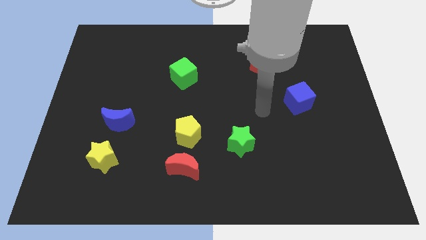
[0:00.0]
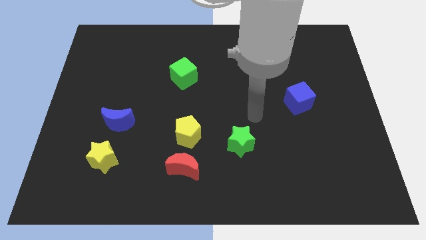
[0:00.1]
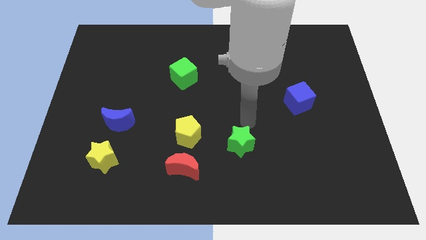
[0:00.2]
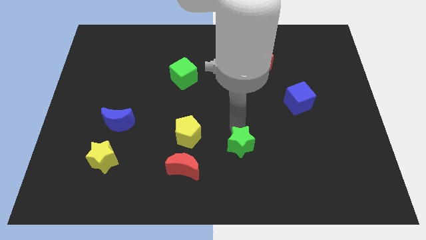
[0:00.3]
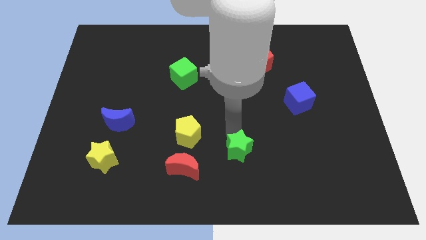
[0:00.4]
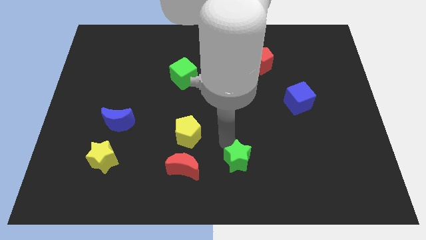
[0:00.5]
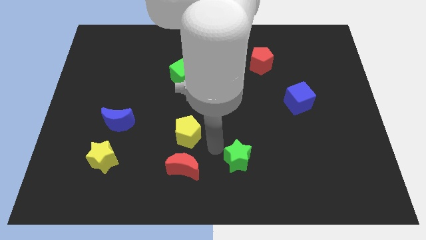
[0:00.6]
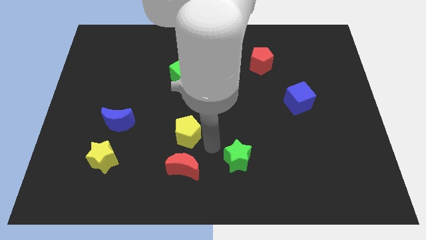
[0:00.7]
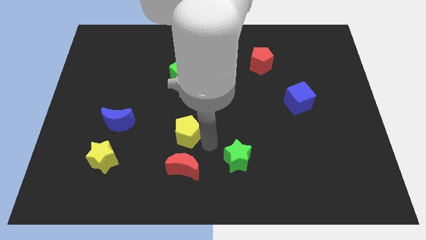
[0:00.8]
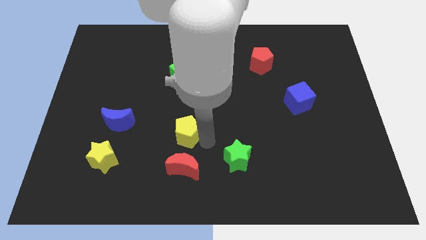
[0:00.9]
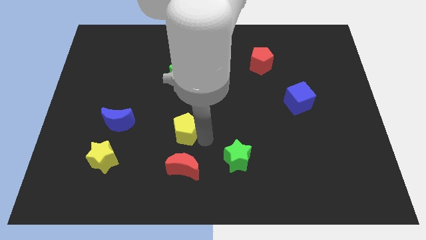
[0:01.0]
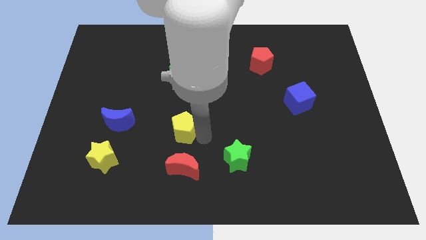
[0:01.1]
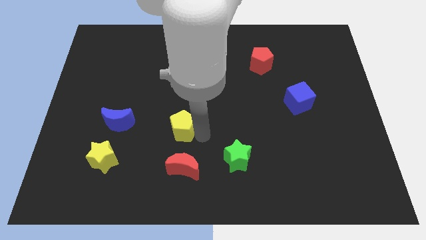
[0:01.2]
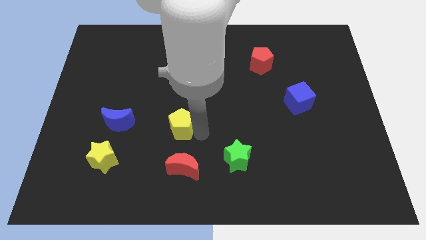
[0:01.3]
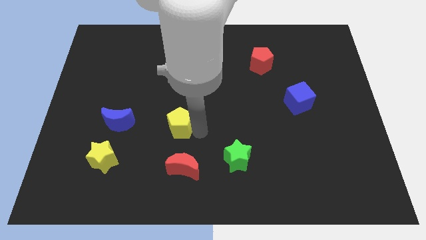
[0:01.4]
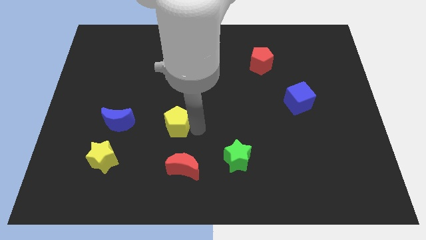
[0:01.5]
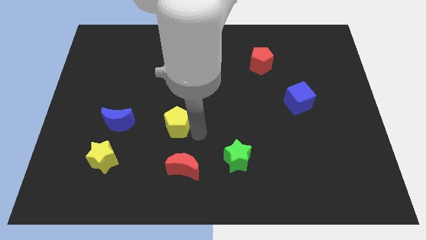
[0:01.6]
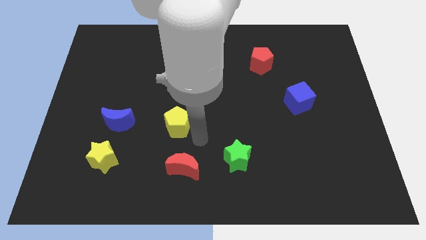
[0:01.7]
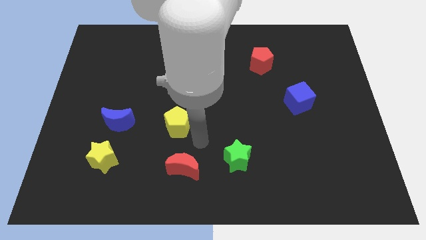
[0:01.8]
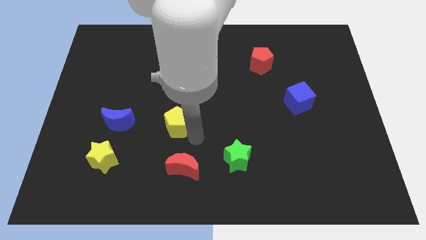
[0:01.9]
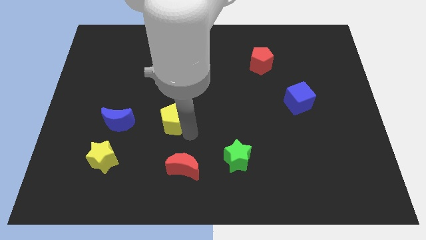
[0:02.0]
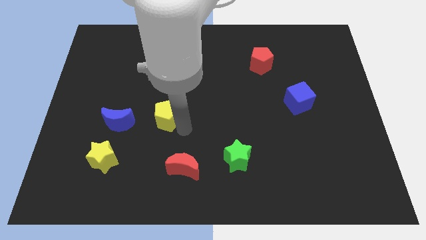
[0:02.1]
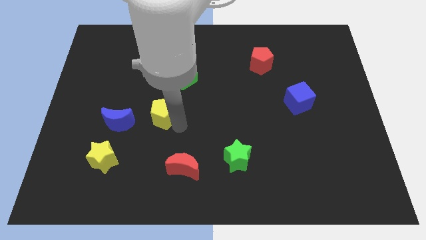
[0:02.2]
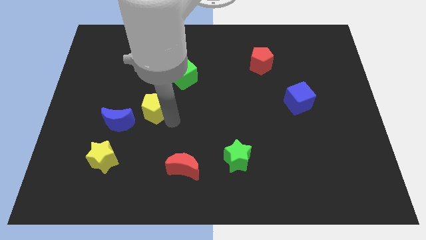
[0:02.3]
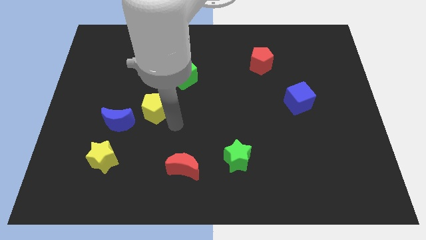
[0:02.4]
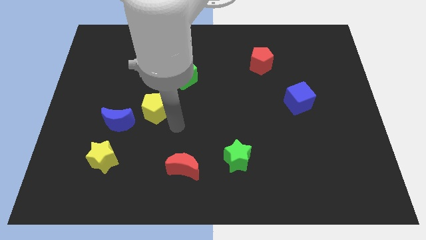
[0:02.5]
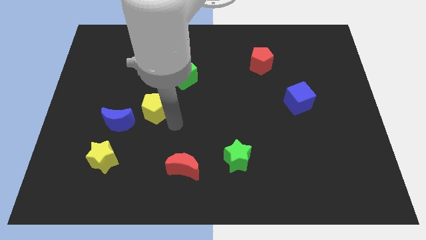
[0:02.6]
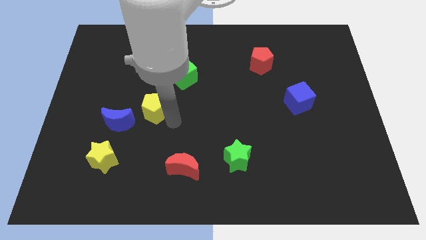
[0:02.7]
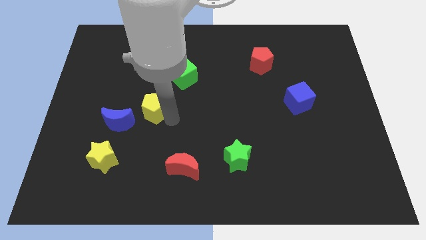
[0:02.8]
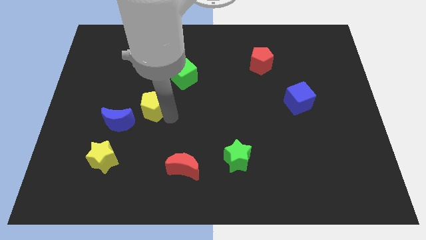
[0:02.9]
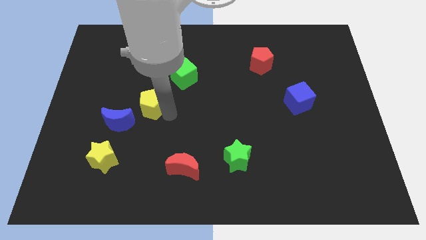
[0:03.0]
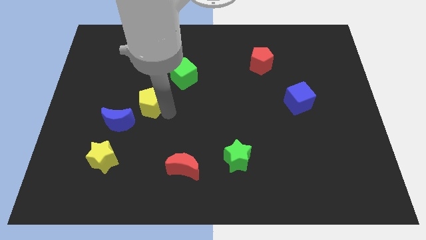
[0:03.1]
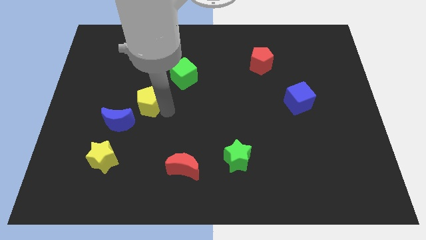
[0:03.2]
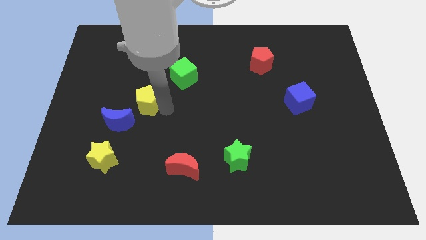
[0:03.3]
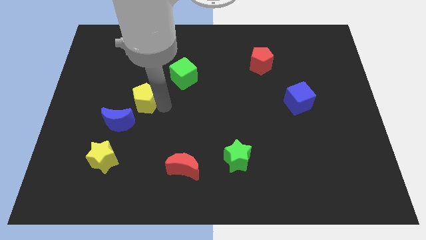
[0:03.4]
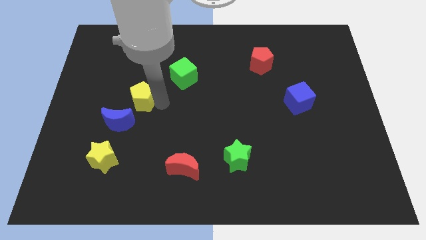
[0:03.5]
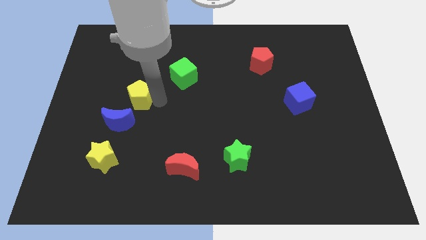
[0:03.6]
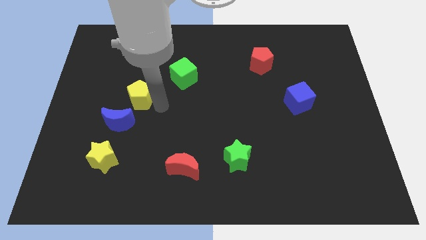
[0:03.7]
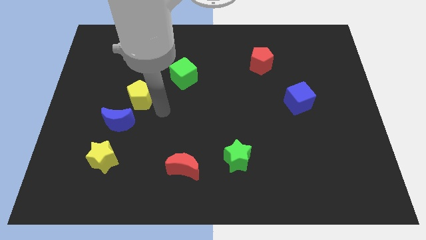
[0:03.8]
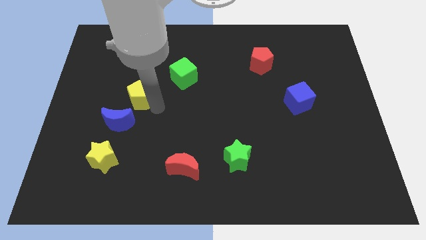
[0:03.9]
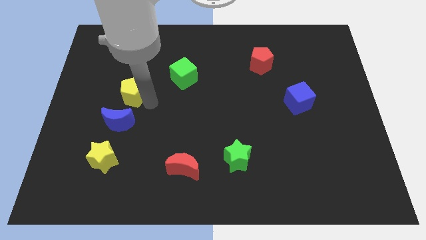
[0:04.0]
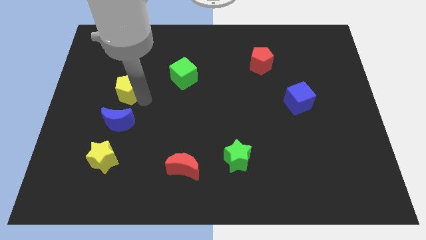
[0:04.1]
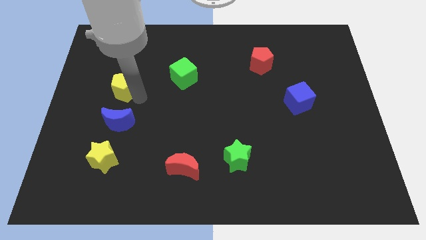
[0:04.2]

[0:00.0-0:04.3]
push the yellow pentagon up and left

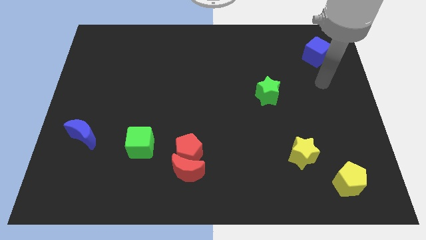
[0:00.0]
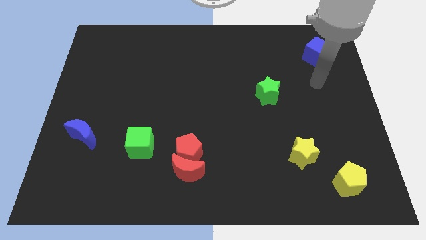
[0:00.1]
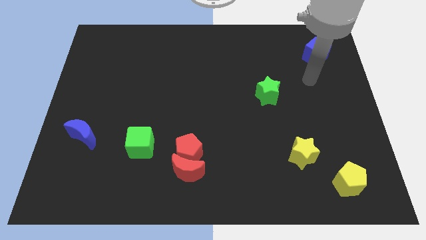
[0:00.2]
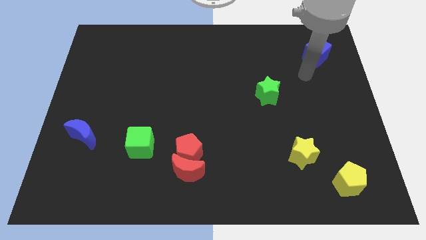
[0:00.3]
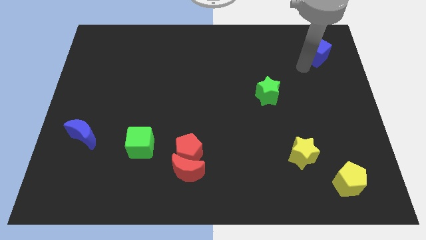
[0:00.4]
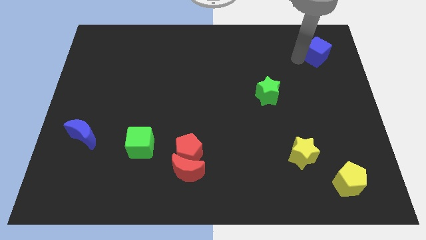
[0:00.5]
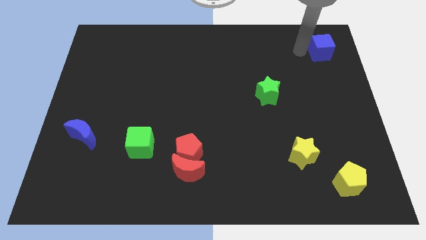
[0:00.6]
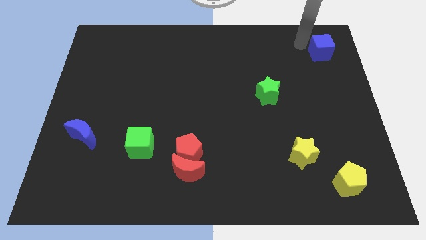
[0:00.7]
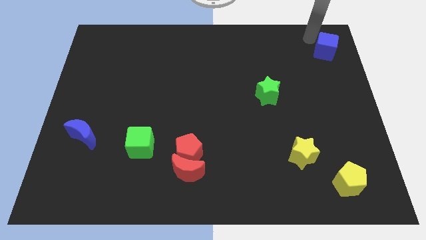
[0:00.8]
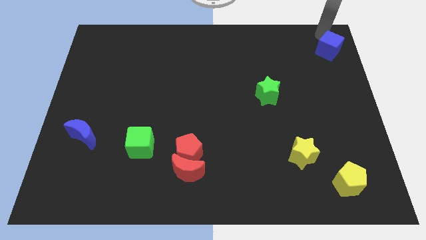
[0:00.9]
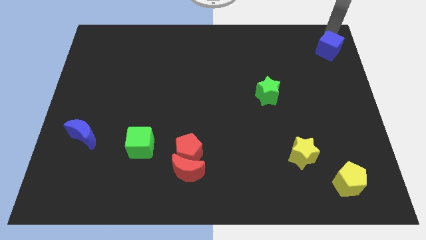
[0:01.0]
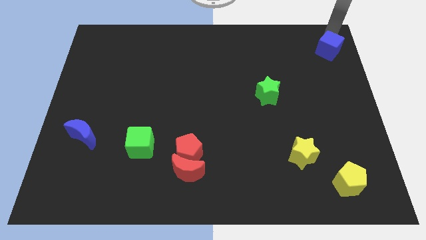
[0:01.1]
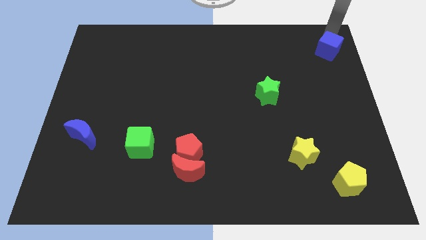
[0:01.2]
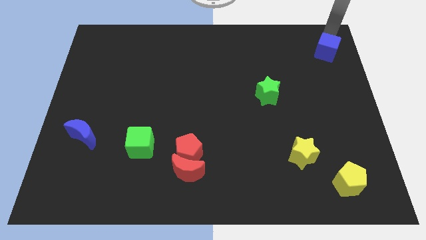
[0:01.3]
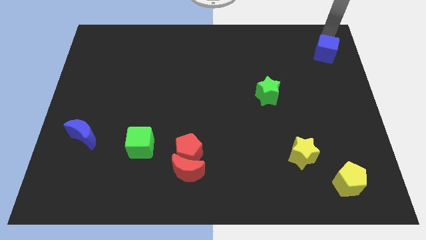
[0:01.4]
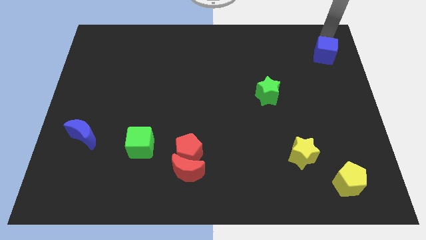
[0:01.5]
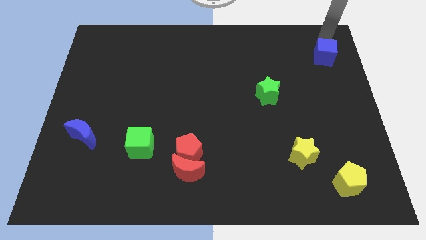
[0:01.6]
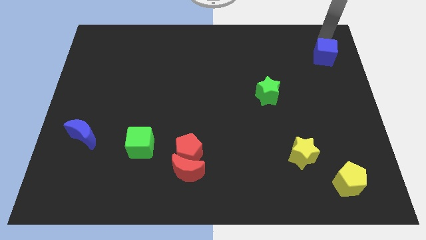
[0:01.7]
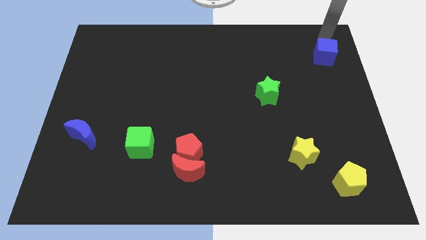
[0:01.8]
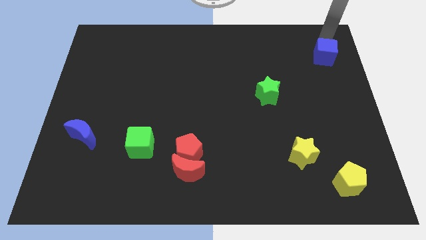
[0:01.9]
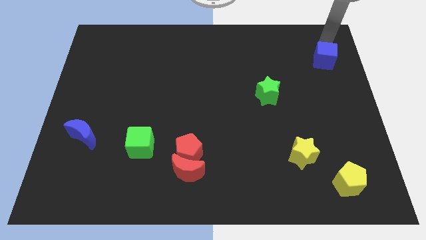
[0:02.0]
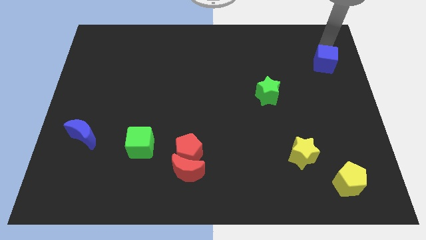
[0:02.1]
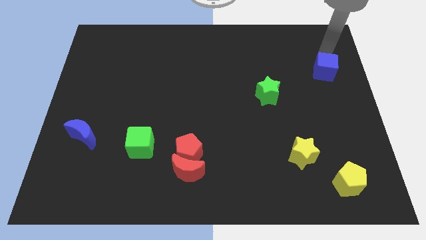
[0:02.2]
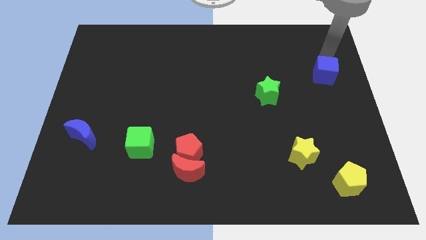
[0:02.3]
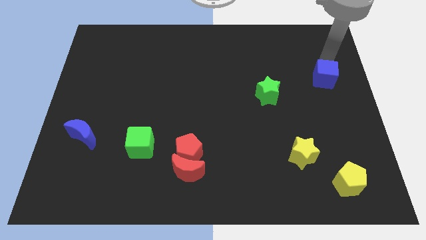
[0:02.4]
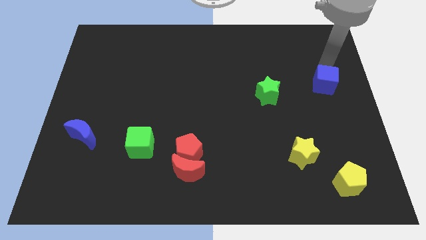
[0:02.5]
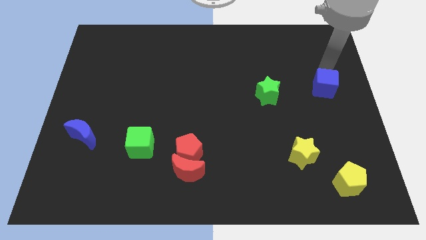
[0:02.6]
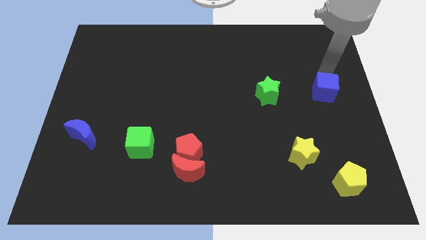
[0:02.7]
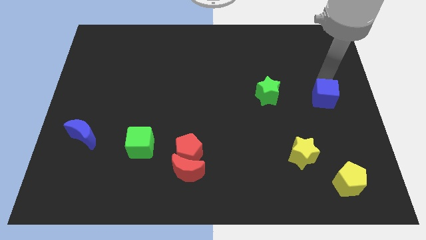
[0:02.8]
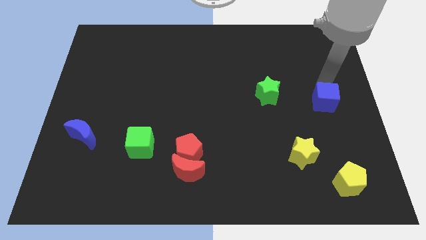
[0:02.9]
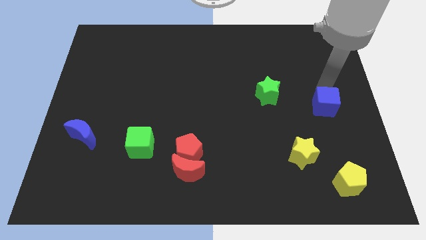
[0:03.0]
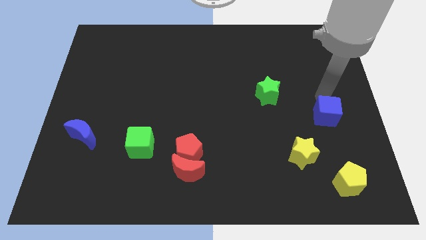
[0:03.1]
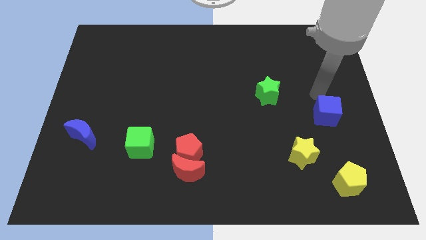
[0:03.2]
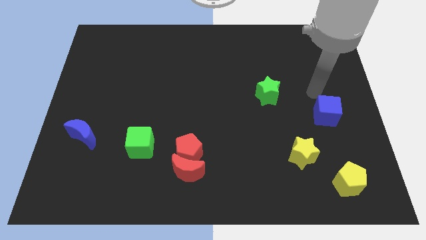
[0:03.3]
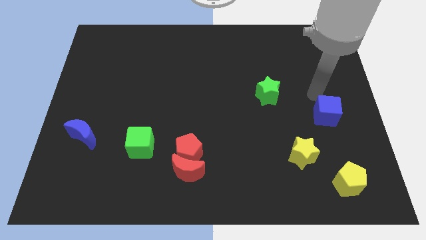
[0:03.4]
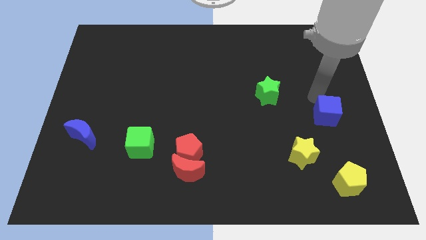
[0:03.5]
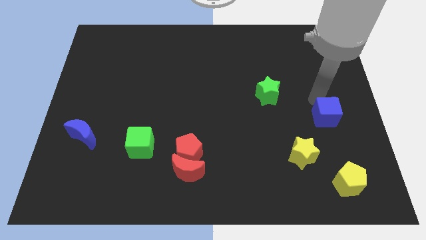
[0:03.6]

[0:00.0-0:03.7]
push the blue cube down

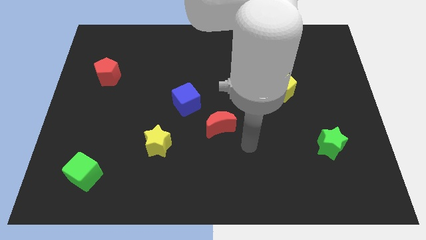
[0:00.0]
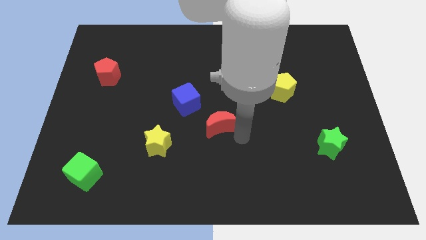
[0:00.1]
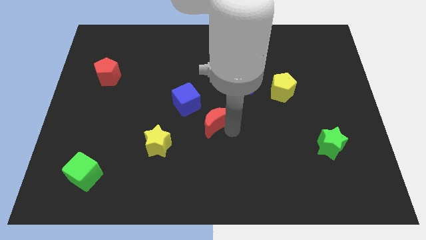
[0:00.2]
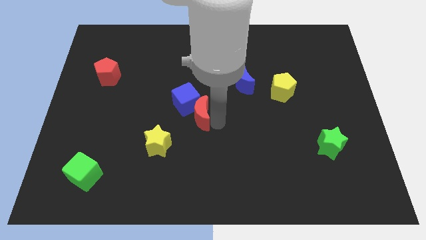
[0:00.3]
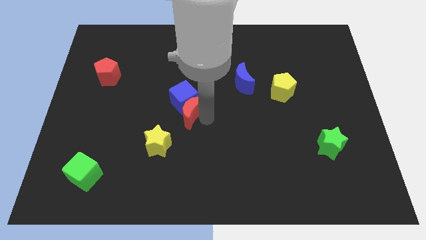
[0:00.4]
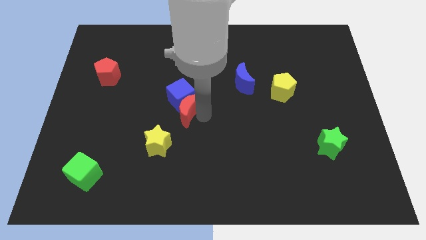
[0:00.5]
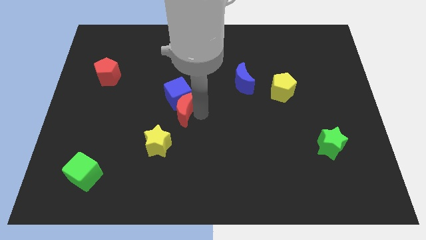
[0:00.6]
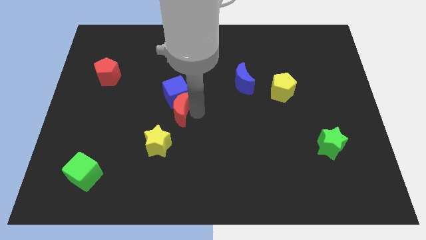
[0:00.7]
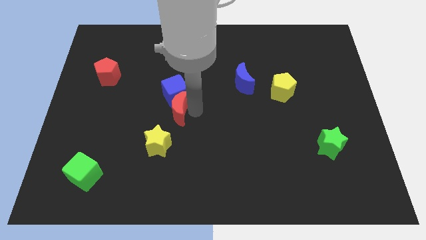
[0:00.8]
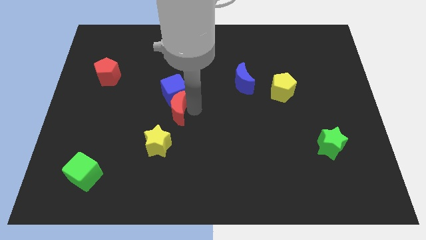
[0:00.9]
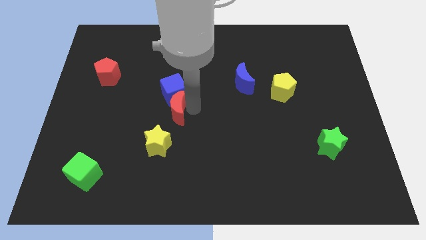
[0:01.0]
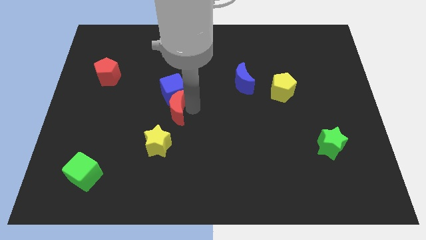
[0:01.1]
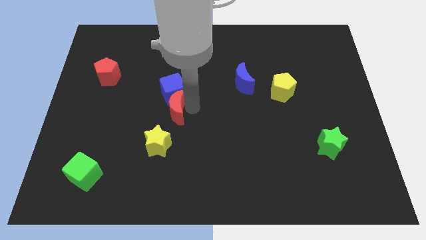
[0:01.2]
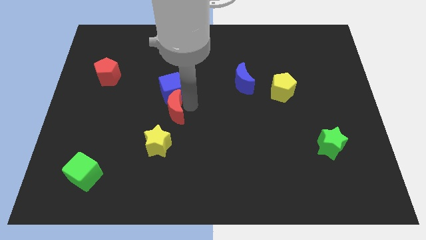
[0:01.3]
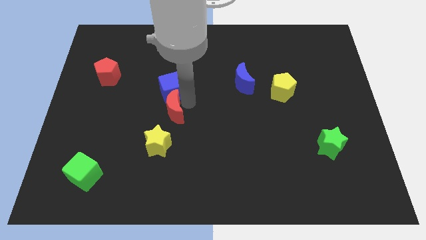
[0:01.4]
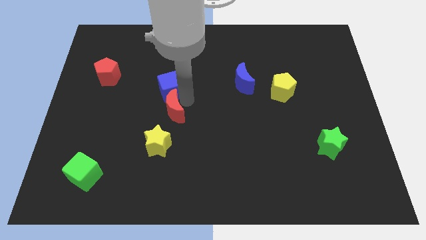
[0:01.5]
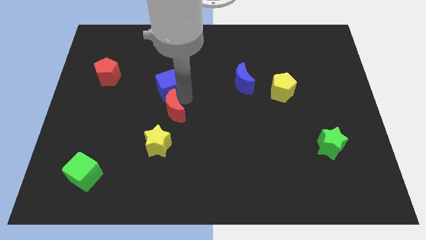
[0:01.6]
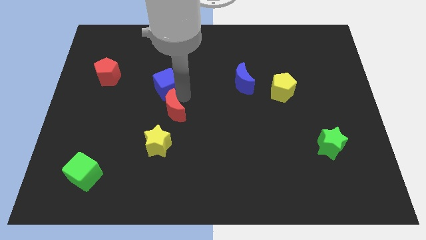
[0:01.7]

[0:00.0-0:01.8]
push the blue cube up and to the left a little
